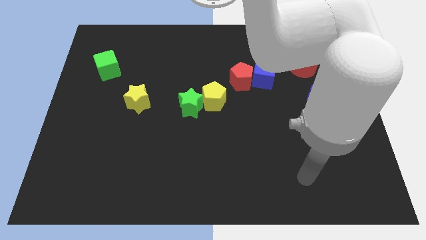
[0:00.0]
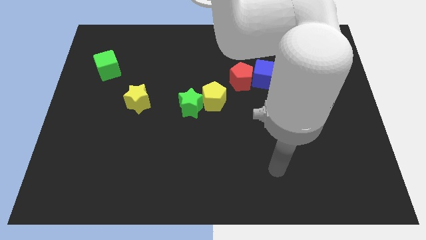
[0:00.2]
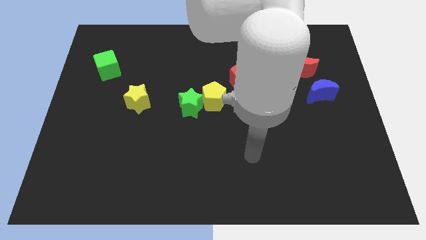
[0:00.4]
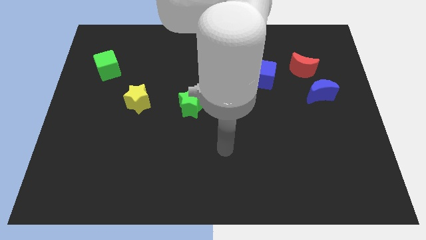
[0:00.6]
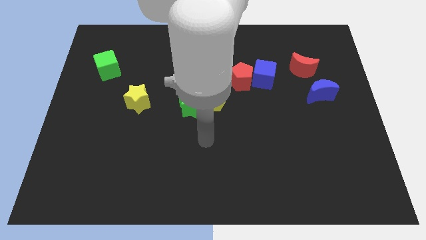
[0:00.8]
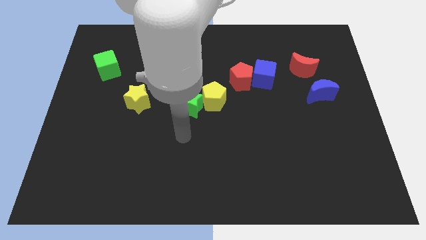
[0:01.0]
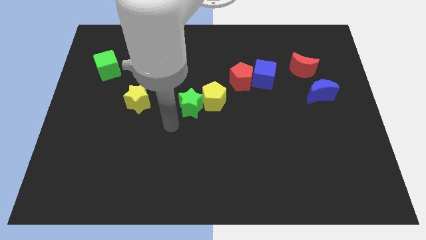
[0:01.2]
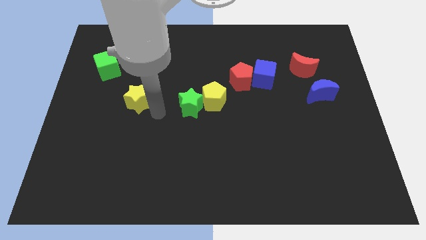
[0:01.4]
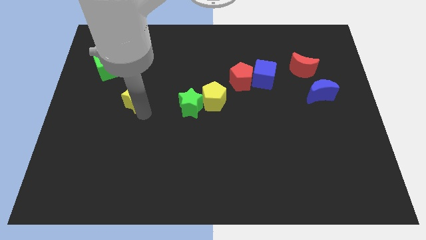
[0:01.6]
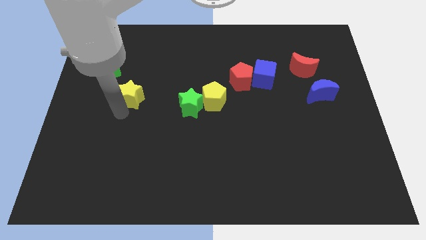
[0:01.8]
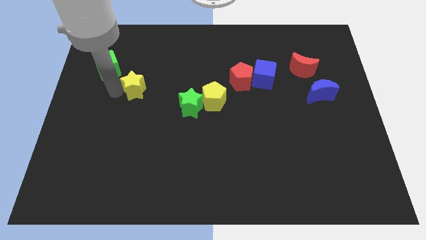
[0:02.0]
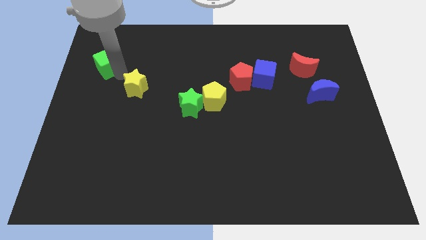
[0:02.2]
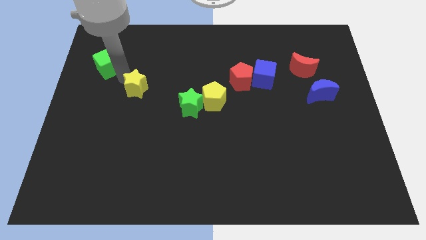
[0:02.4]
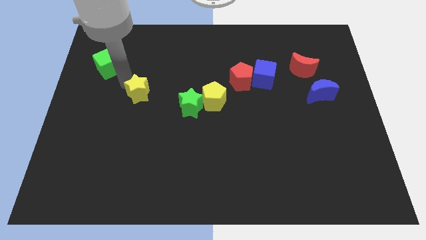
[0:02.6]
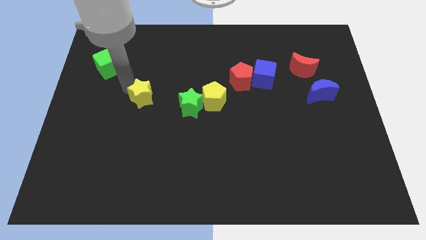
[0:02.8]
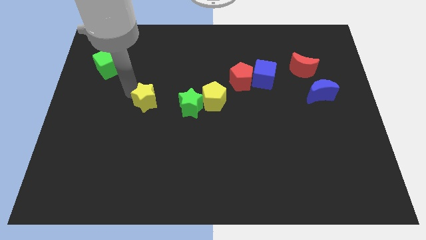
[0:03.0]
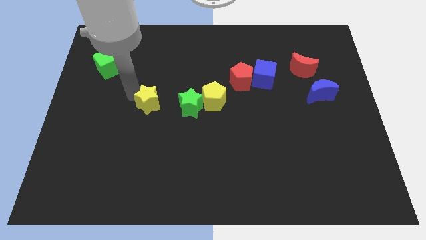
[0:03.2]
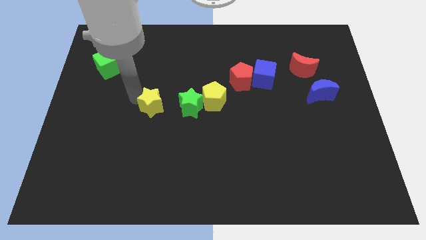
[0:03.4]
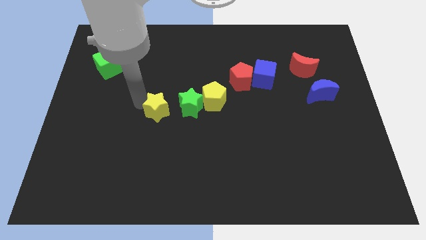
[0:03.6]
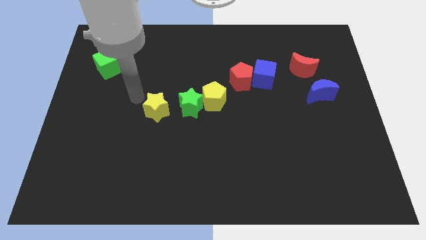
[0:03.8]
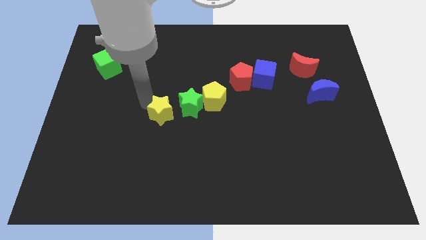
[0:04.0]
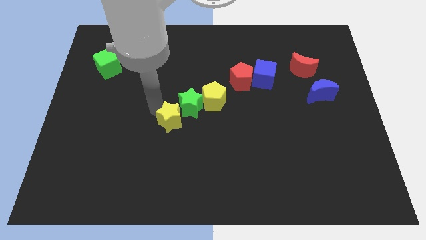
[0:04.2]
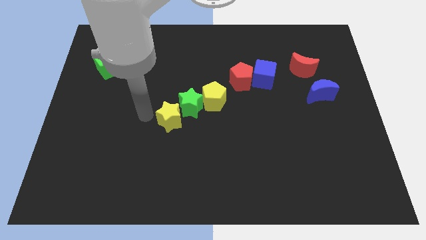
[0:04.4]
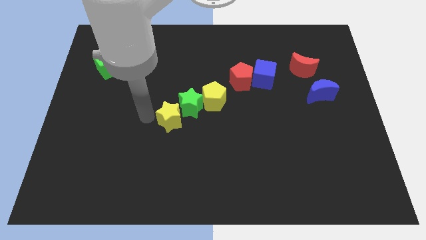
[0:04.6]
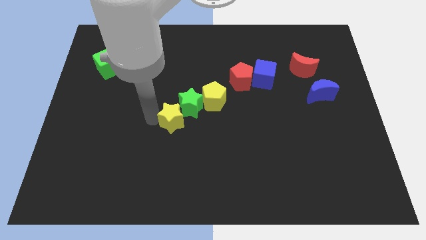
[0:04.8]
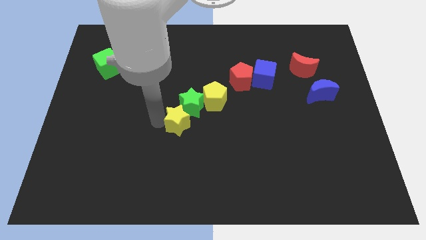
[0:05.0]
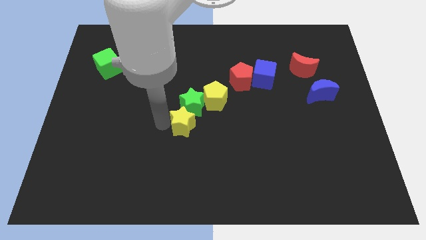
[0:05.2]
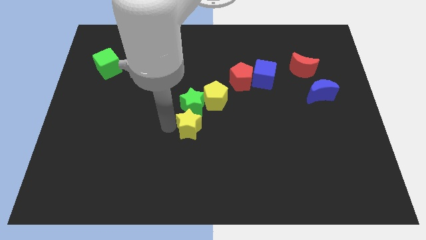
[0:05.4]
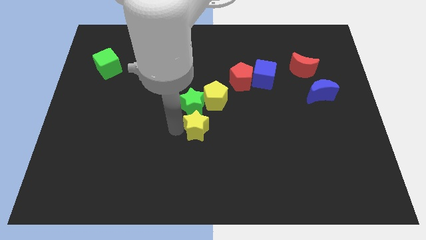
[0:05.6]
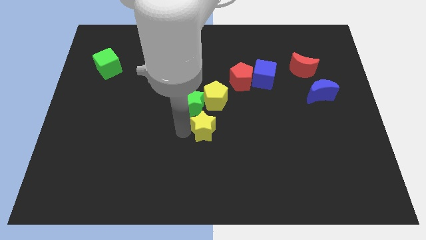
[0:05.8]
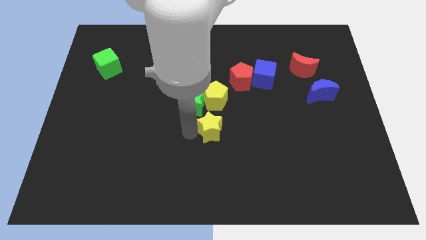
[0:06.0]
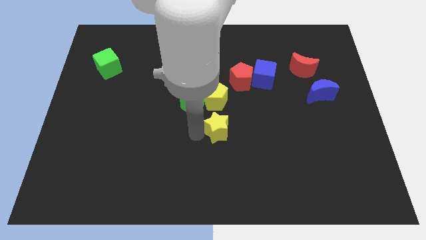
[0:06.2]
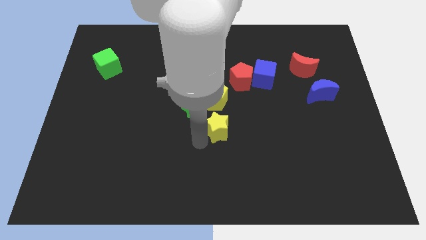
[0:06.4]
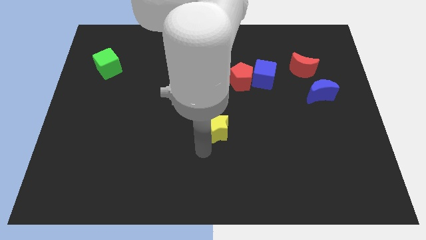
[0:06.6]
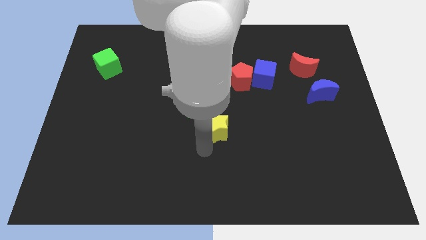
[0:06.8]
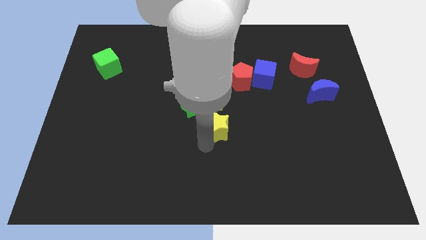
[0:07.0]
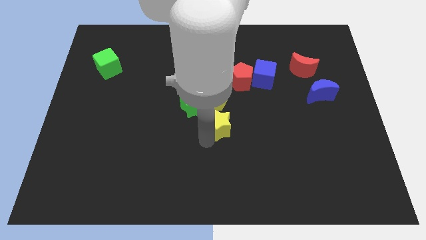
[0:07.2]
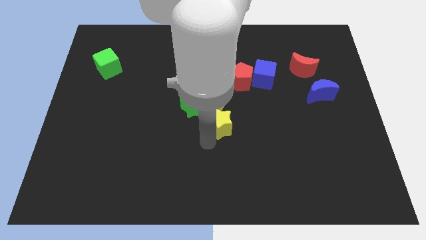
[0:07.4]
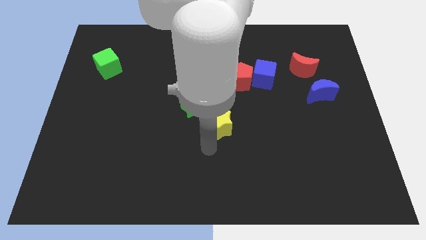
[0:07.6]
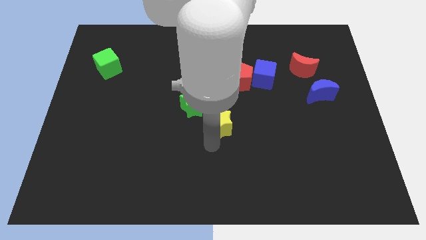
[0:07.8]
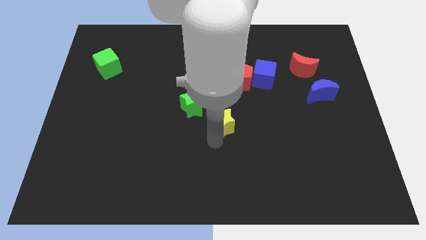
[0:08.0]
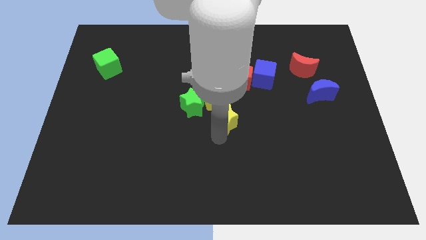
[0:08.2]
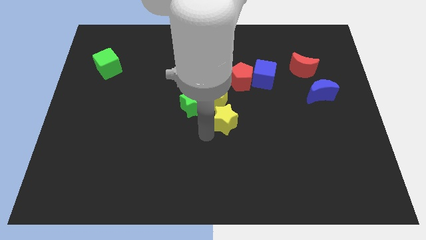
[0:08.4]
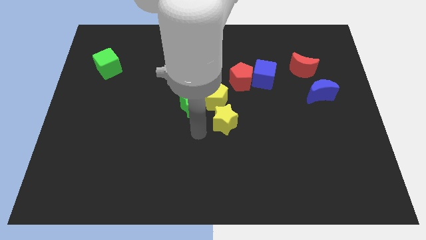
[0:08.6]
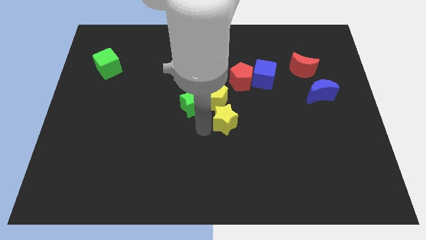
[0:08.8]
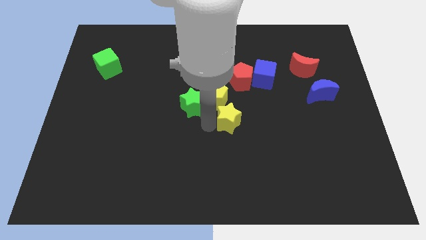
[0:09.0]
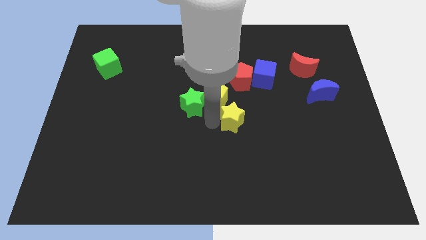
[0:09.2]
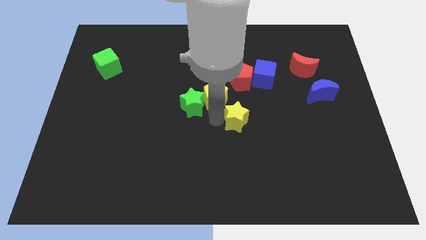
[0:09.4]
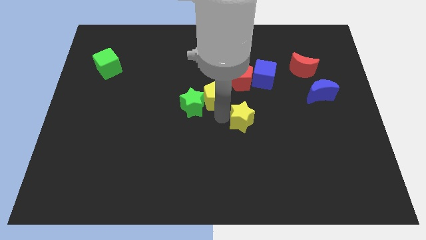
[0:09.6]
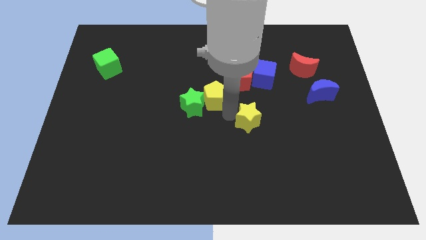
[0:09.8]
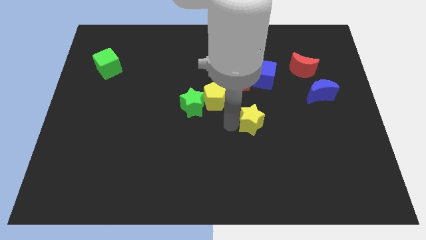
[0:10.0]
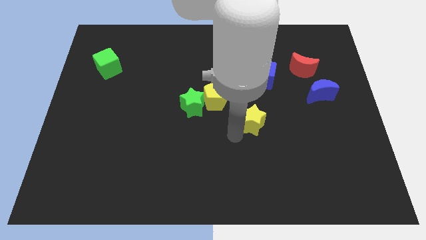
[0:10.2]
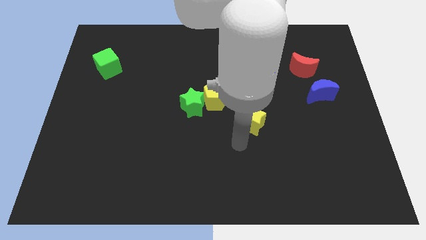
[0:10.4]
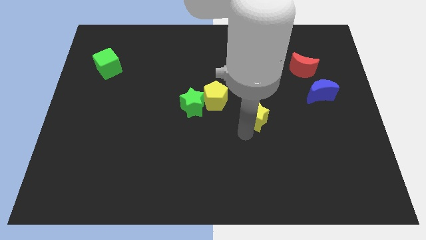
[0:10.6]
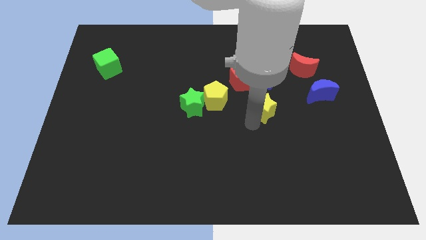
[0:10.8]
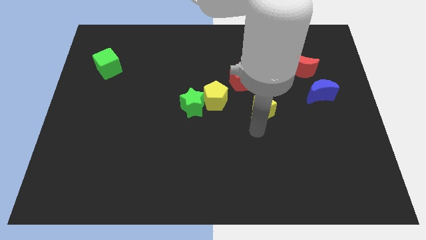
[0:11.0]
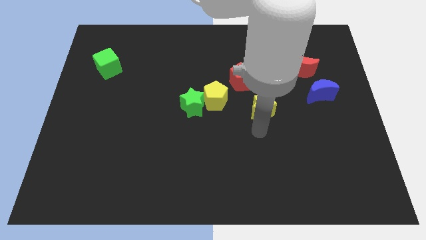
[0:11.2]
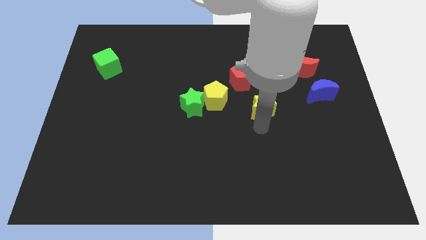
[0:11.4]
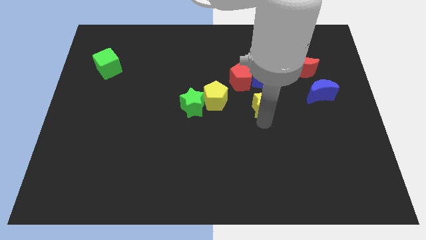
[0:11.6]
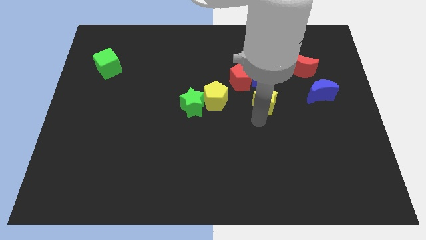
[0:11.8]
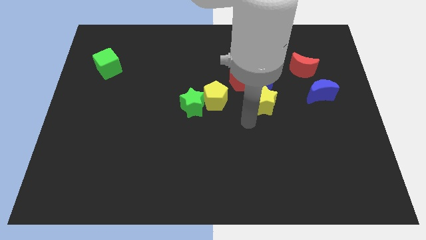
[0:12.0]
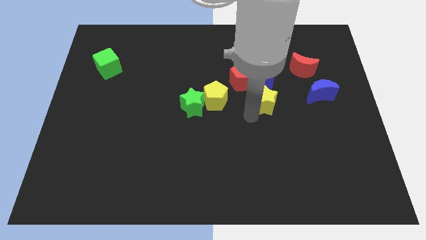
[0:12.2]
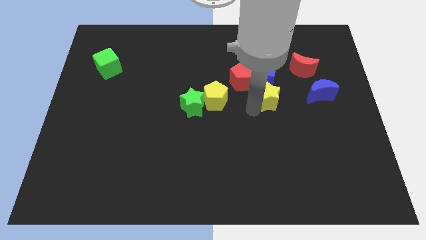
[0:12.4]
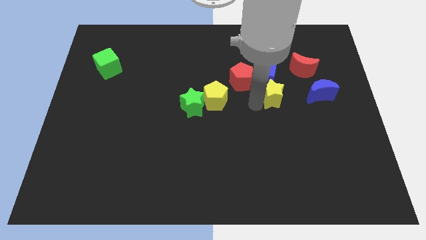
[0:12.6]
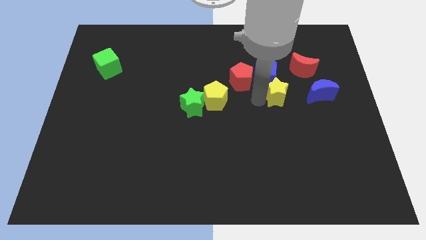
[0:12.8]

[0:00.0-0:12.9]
move the yellow star to the right of the red pentagon

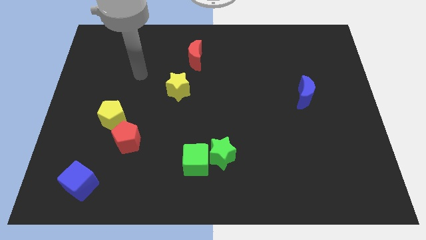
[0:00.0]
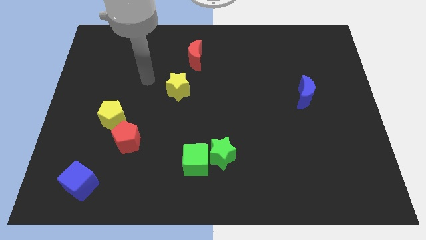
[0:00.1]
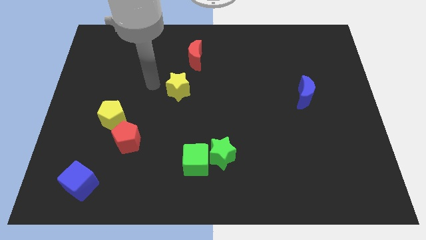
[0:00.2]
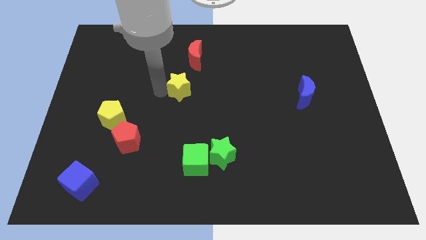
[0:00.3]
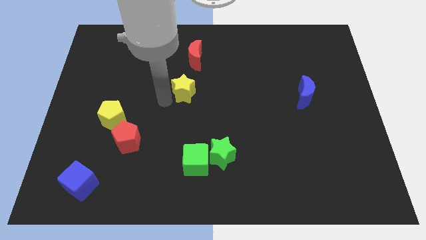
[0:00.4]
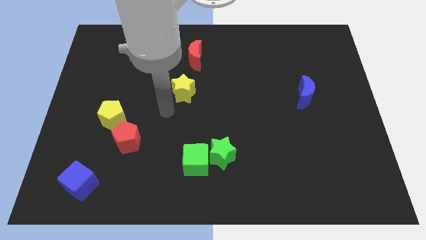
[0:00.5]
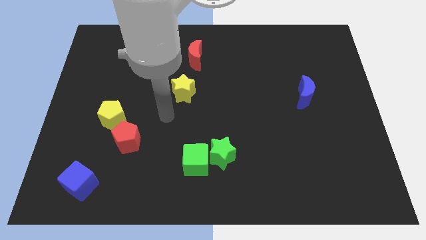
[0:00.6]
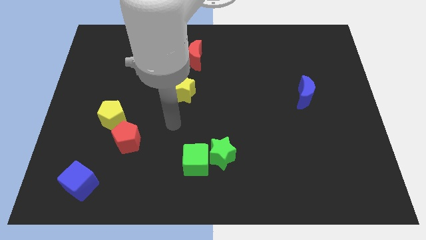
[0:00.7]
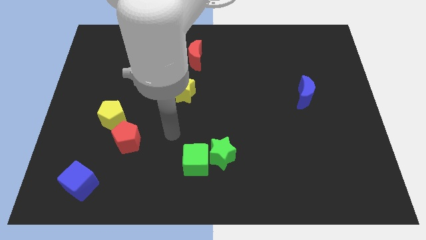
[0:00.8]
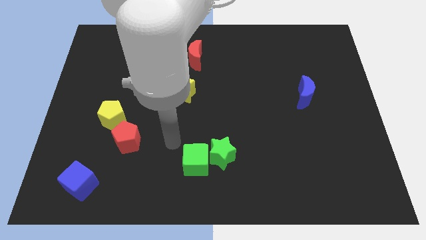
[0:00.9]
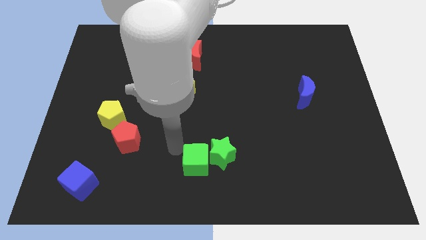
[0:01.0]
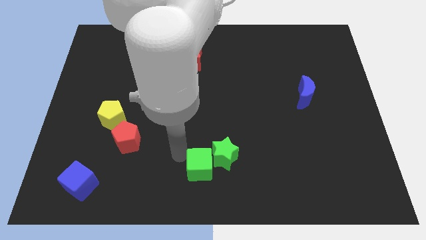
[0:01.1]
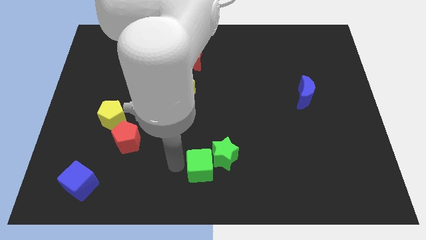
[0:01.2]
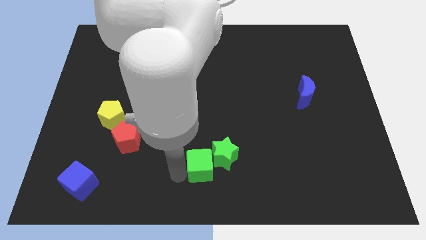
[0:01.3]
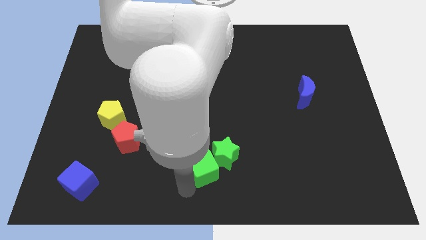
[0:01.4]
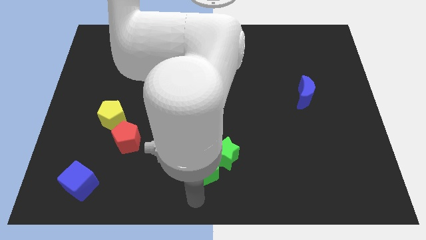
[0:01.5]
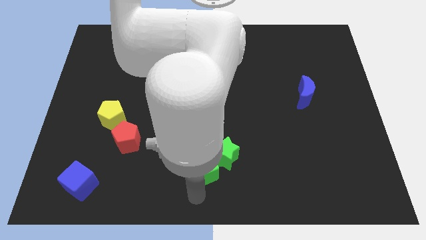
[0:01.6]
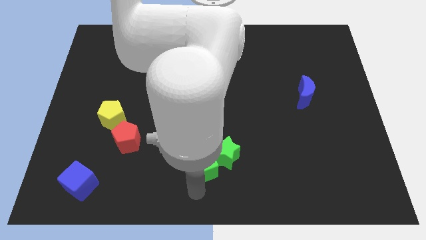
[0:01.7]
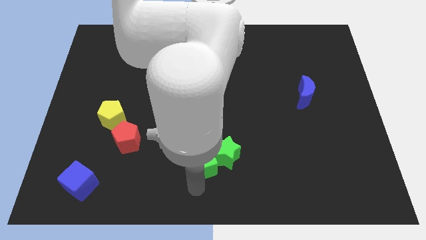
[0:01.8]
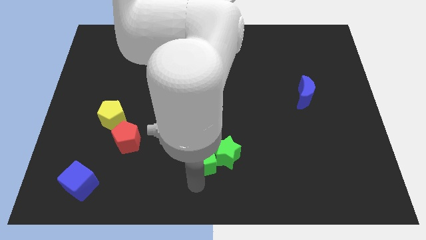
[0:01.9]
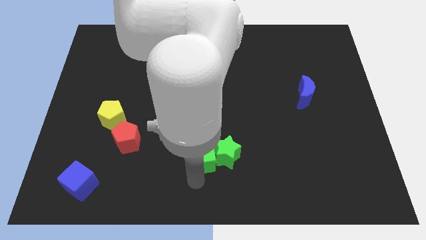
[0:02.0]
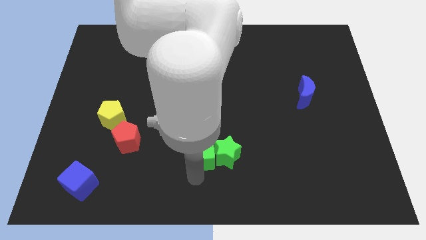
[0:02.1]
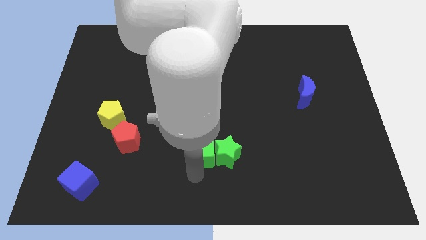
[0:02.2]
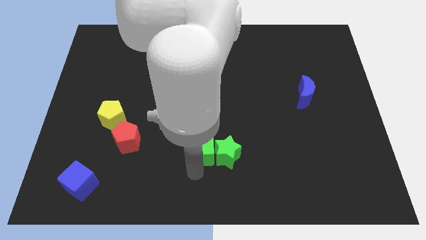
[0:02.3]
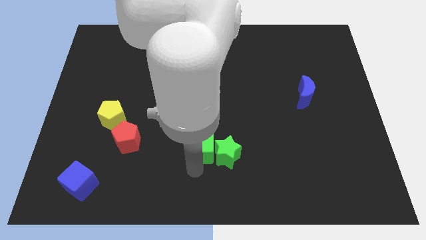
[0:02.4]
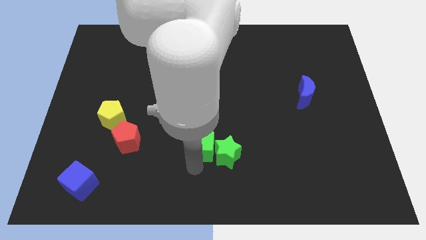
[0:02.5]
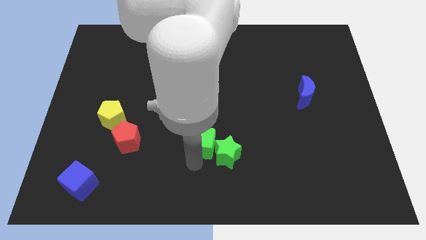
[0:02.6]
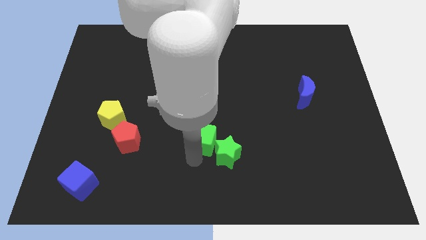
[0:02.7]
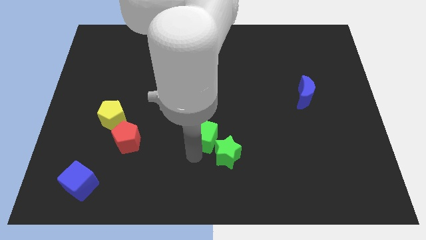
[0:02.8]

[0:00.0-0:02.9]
slide the green cube to the top side of the green star
